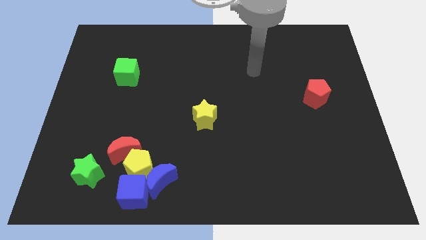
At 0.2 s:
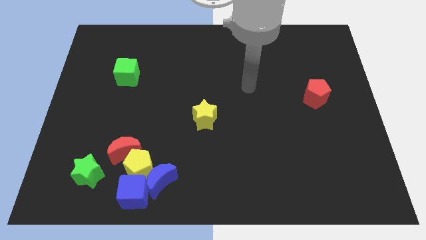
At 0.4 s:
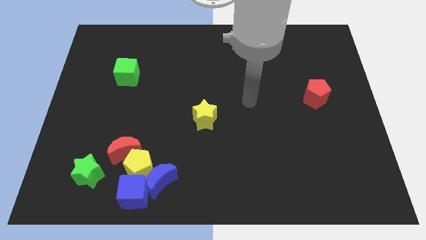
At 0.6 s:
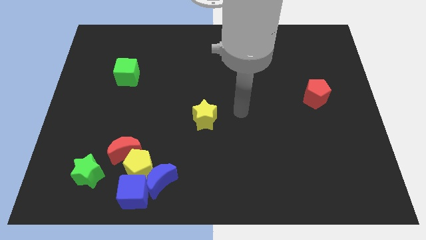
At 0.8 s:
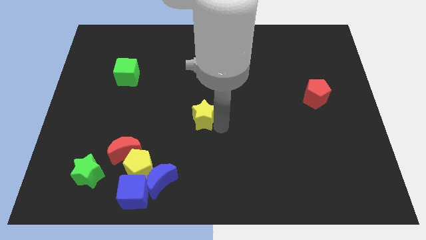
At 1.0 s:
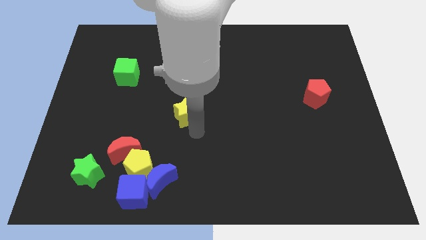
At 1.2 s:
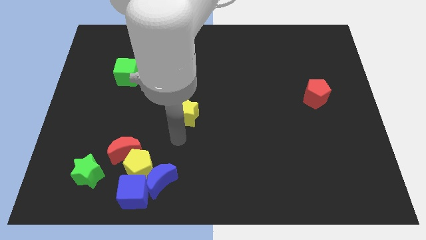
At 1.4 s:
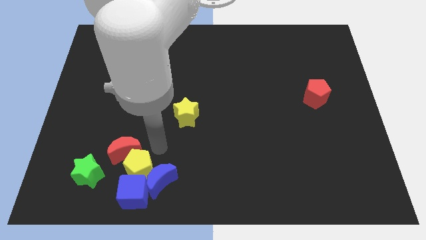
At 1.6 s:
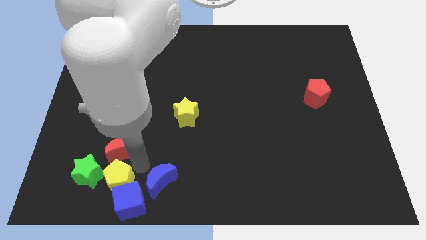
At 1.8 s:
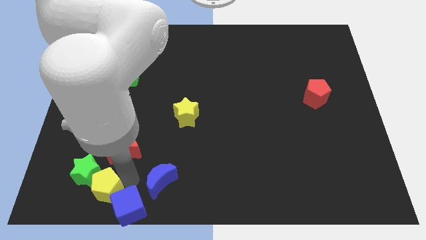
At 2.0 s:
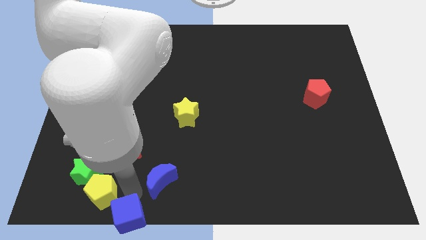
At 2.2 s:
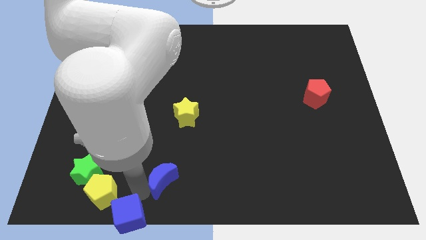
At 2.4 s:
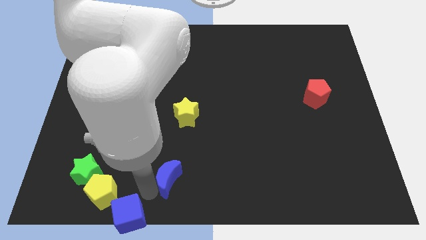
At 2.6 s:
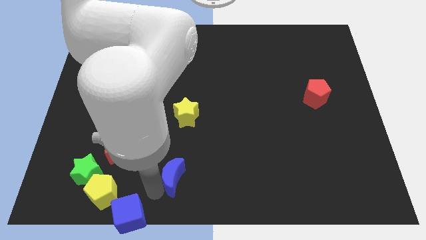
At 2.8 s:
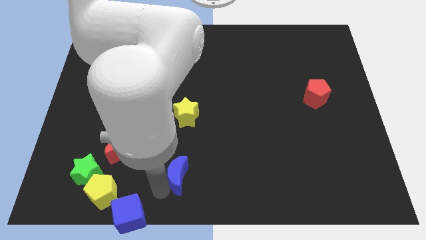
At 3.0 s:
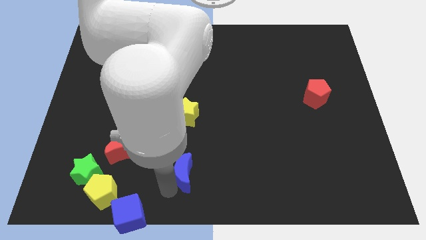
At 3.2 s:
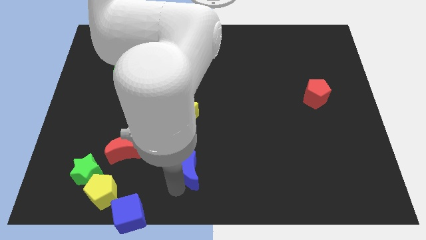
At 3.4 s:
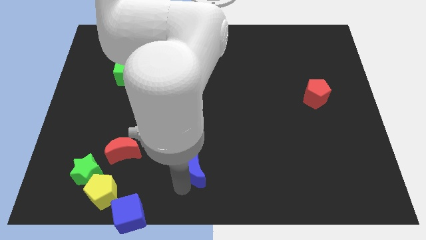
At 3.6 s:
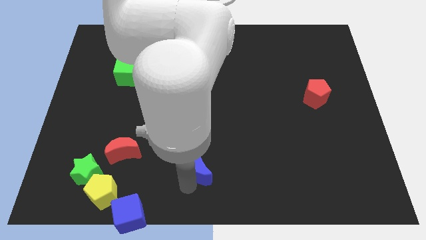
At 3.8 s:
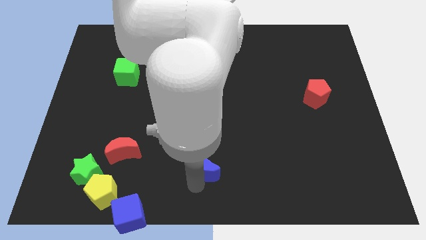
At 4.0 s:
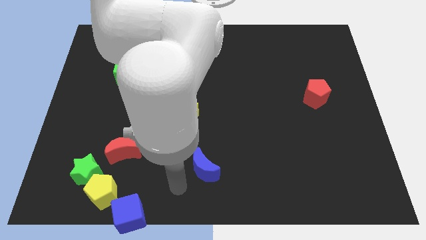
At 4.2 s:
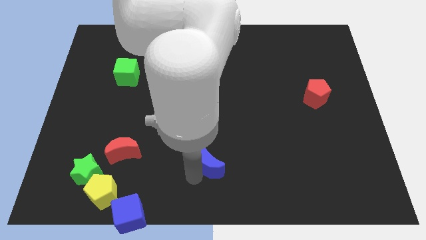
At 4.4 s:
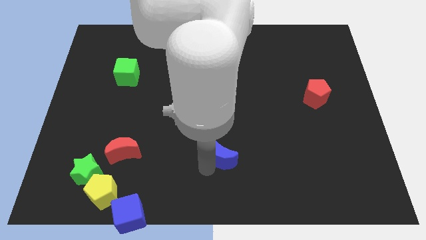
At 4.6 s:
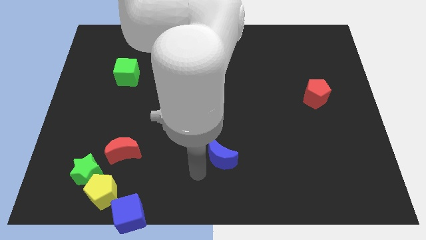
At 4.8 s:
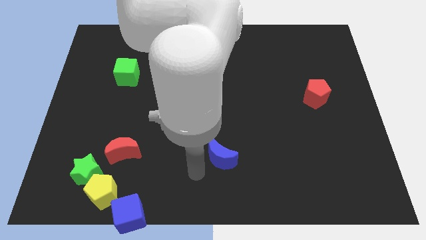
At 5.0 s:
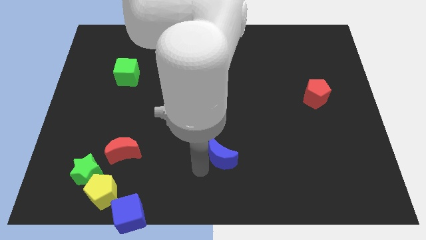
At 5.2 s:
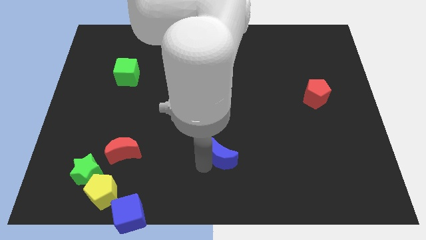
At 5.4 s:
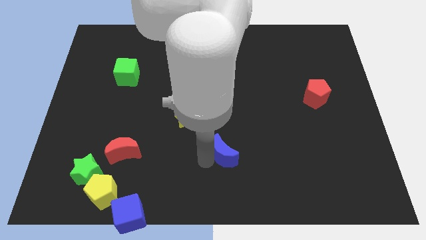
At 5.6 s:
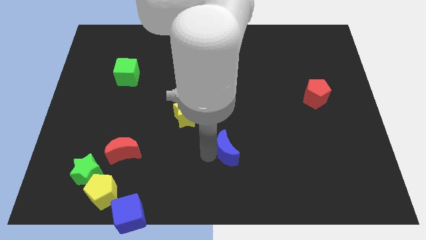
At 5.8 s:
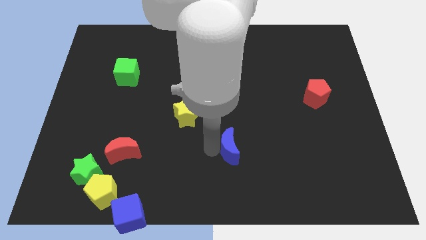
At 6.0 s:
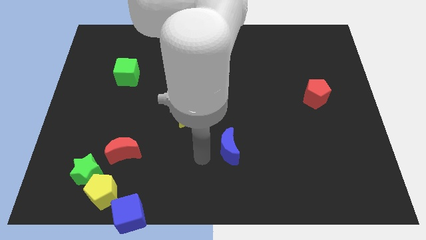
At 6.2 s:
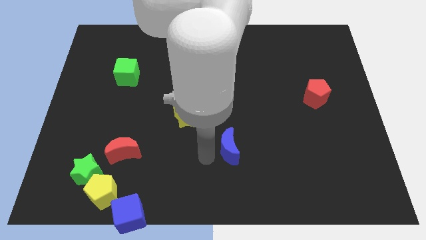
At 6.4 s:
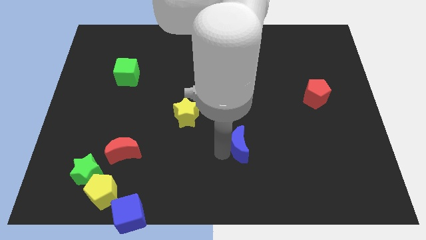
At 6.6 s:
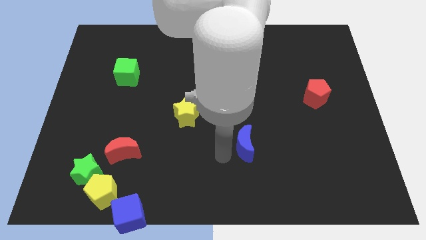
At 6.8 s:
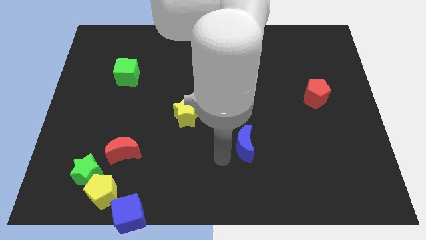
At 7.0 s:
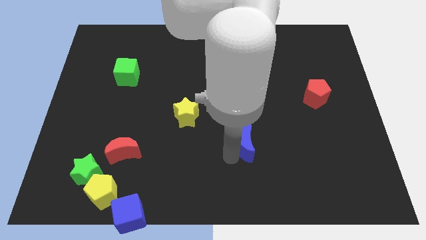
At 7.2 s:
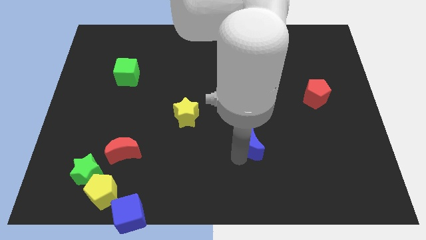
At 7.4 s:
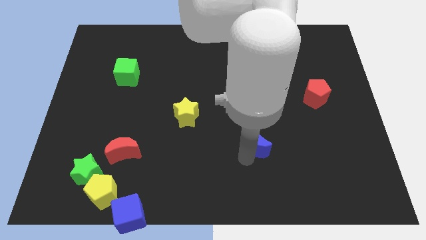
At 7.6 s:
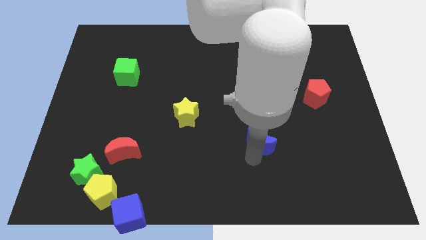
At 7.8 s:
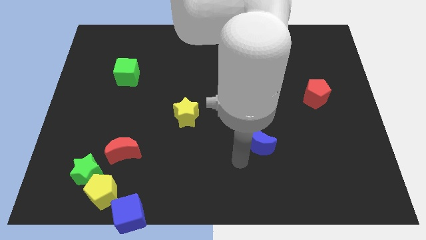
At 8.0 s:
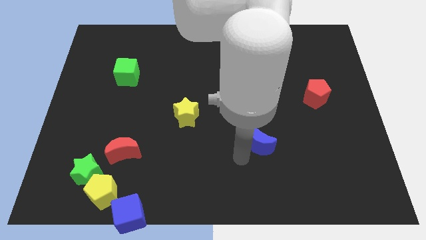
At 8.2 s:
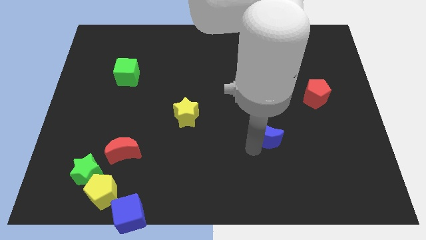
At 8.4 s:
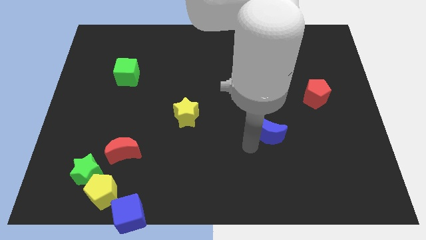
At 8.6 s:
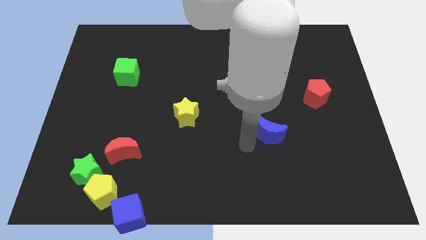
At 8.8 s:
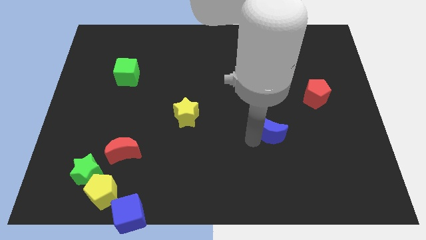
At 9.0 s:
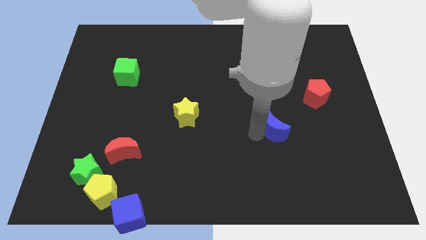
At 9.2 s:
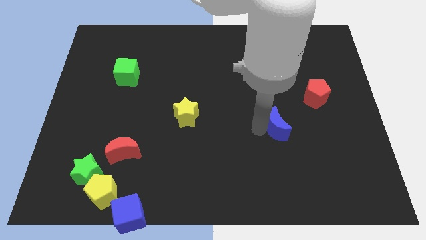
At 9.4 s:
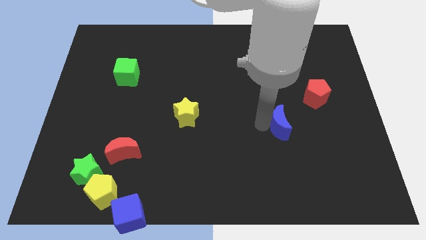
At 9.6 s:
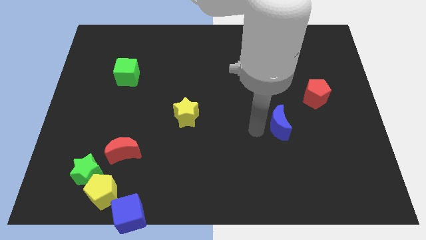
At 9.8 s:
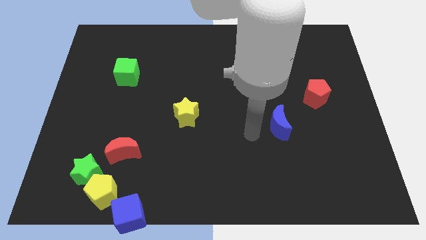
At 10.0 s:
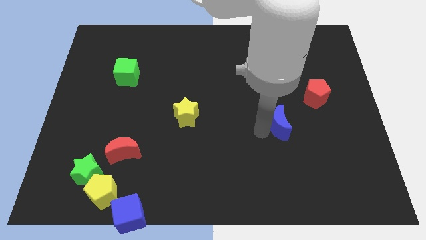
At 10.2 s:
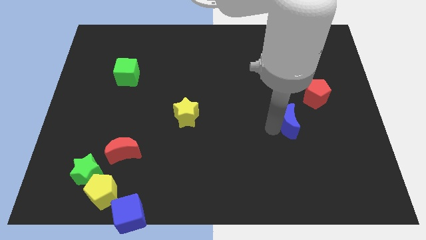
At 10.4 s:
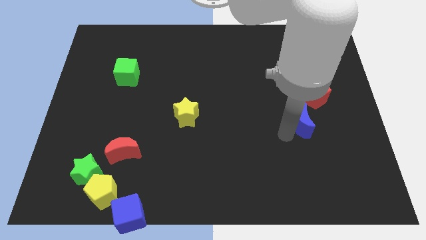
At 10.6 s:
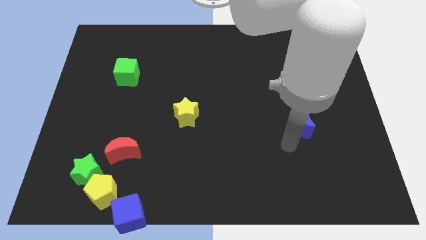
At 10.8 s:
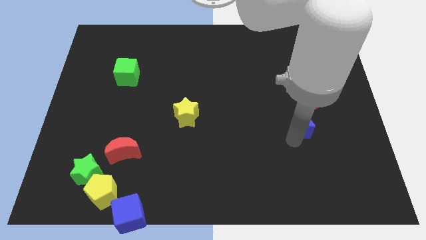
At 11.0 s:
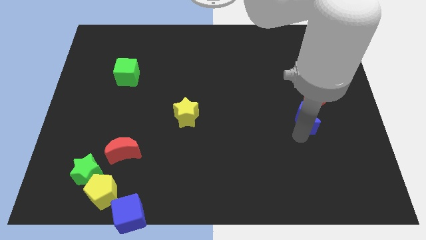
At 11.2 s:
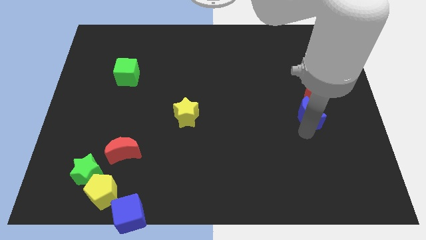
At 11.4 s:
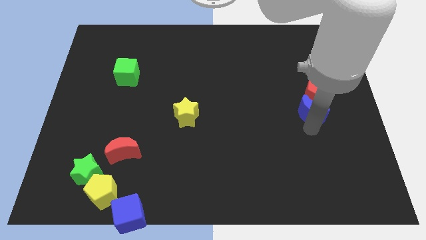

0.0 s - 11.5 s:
push the blue moon to the red pentagon

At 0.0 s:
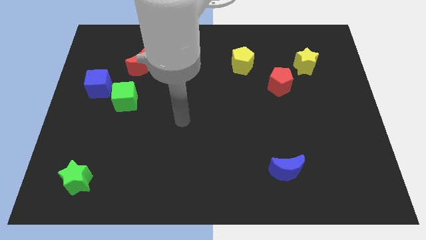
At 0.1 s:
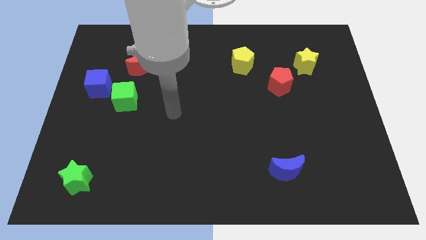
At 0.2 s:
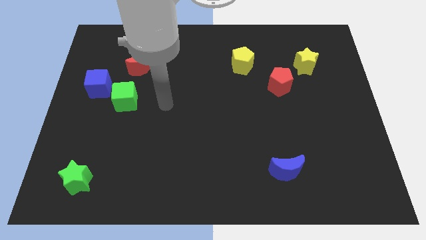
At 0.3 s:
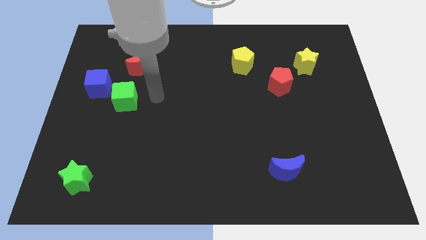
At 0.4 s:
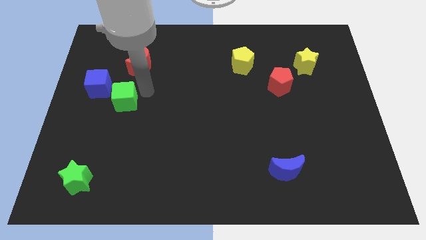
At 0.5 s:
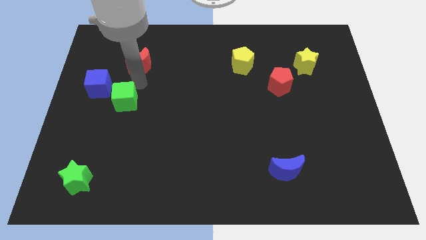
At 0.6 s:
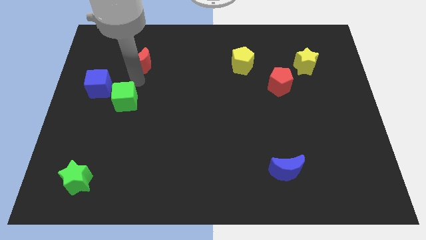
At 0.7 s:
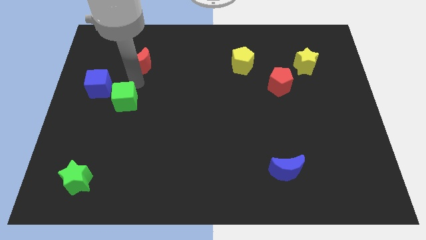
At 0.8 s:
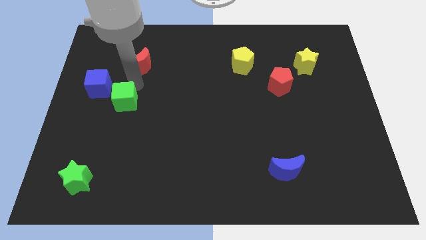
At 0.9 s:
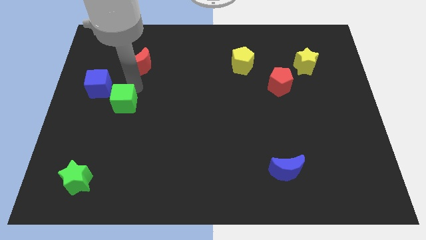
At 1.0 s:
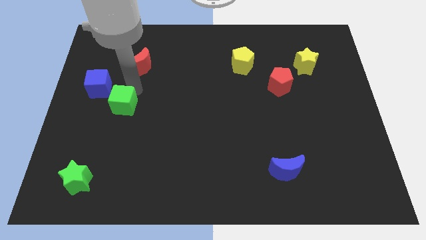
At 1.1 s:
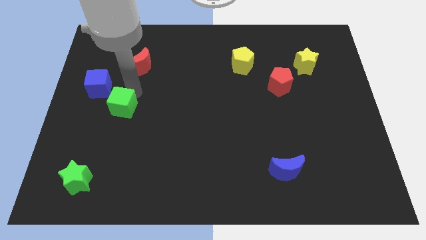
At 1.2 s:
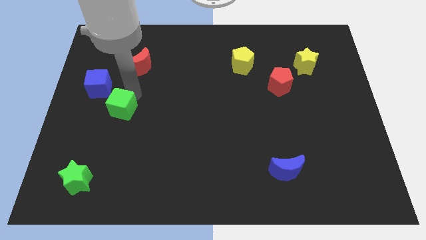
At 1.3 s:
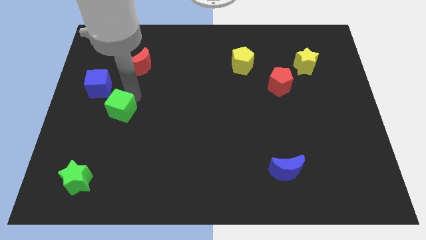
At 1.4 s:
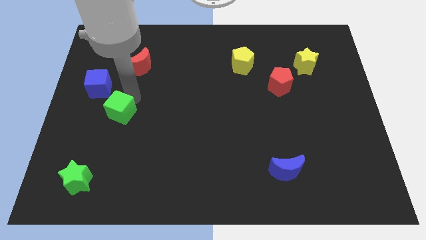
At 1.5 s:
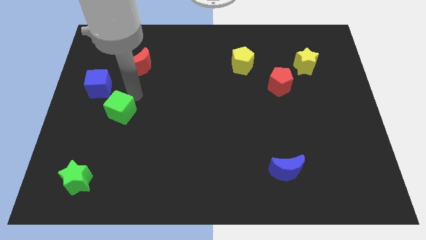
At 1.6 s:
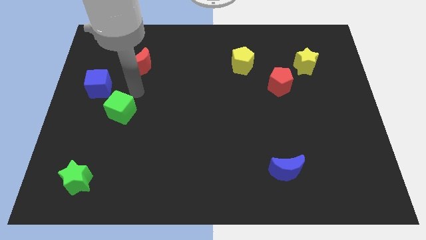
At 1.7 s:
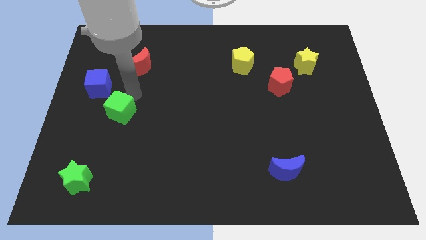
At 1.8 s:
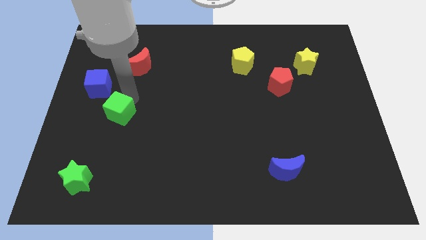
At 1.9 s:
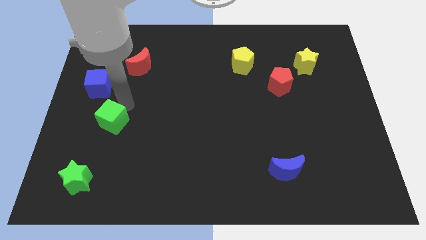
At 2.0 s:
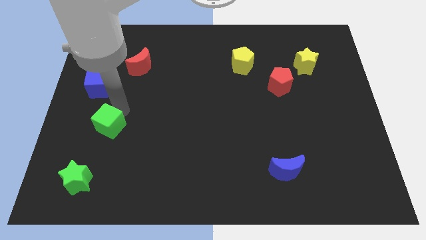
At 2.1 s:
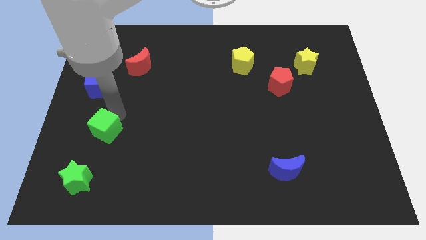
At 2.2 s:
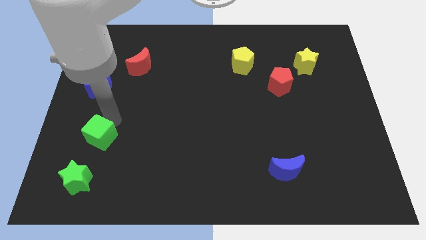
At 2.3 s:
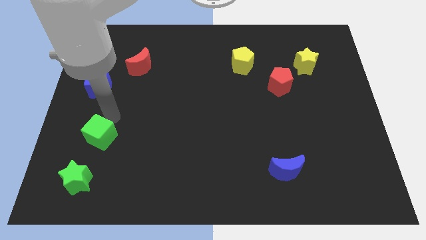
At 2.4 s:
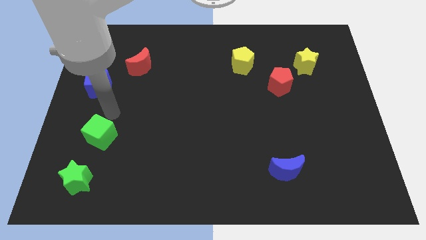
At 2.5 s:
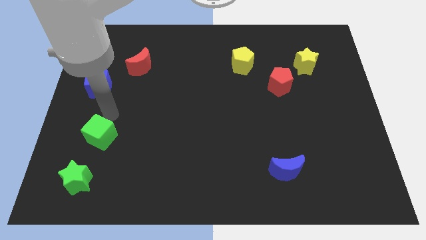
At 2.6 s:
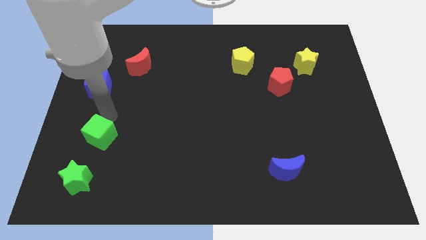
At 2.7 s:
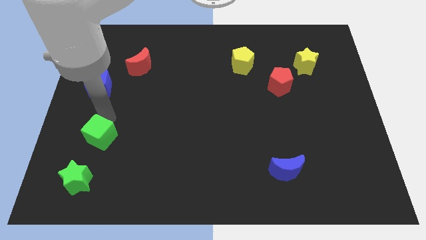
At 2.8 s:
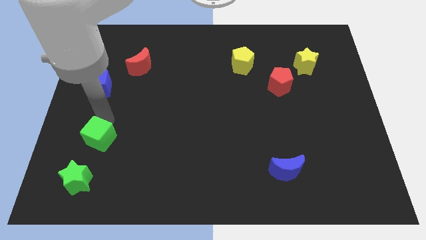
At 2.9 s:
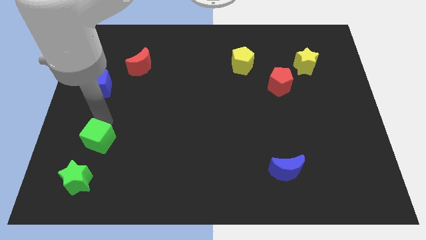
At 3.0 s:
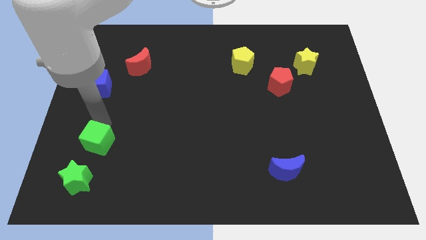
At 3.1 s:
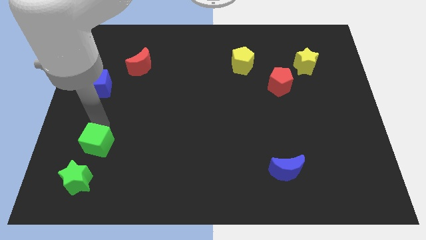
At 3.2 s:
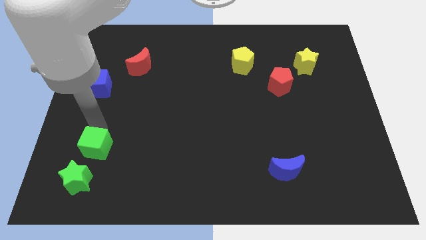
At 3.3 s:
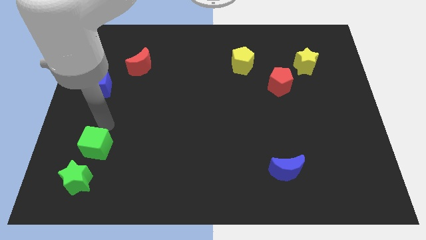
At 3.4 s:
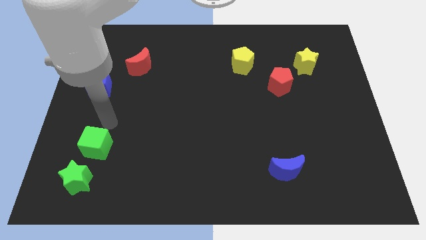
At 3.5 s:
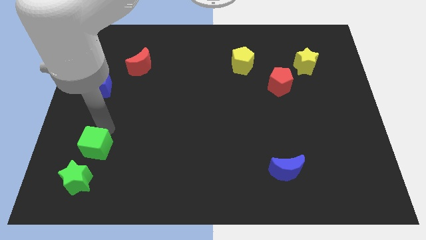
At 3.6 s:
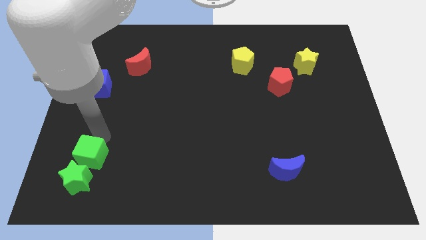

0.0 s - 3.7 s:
push the green cube close to the green star
